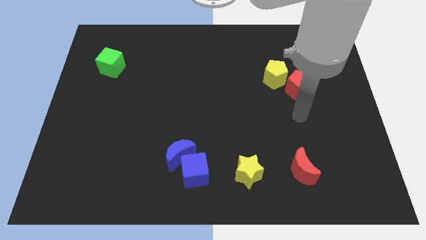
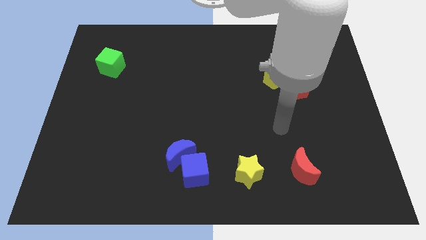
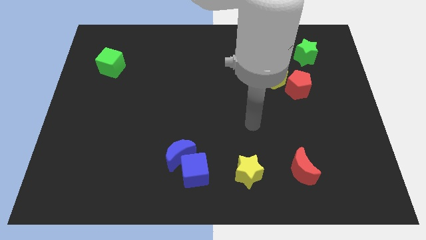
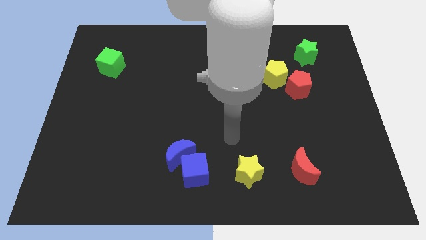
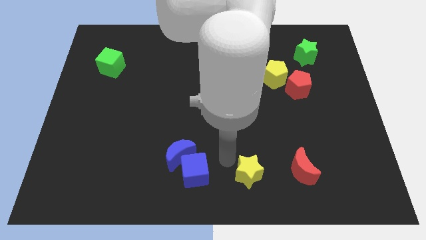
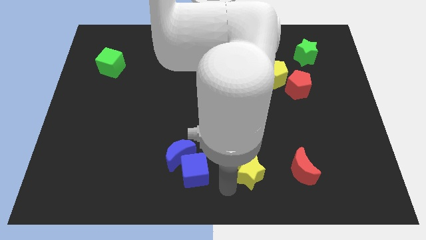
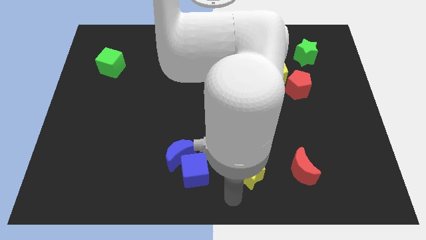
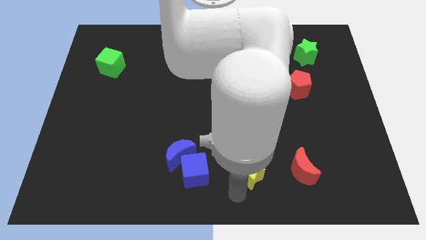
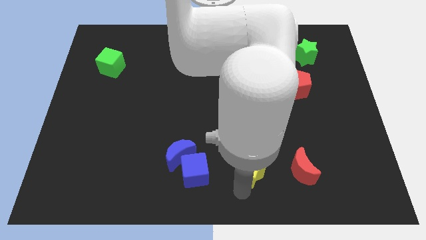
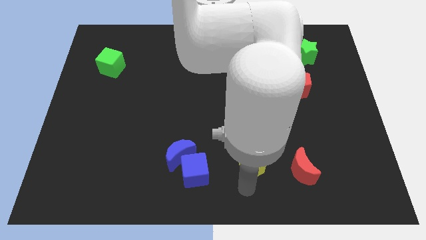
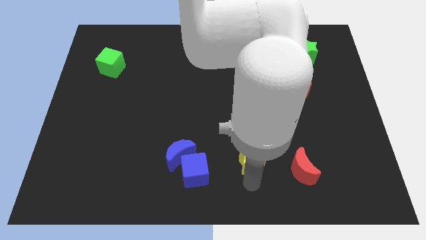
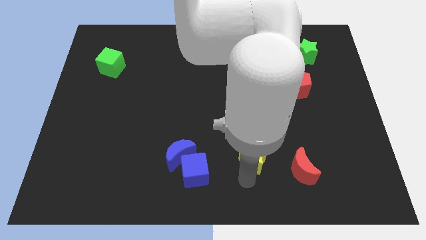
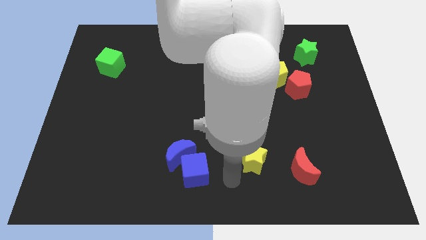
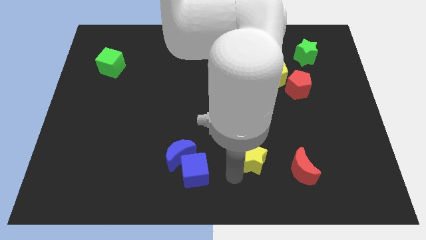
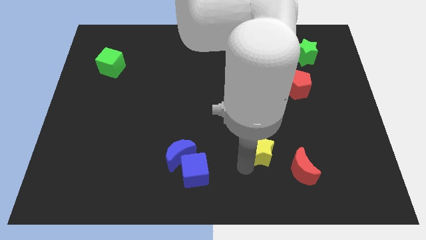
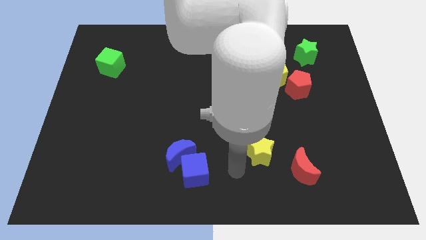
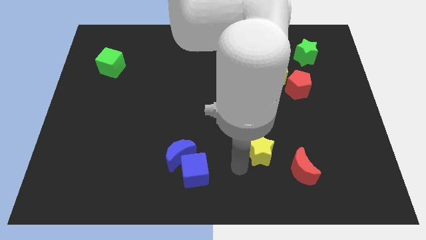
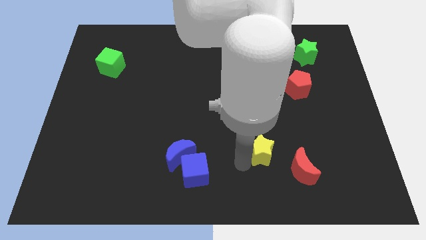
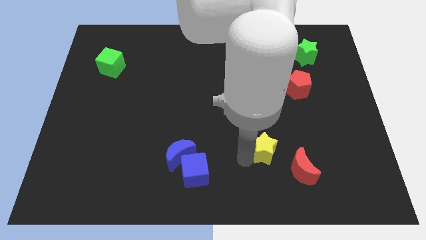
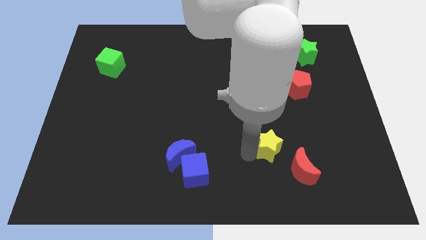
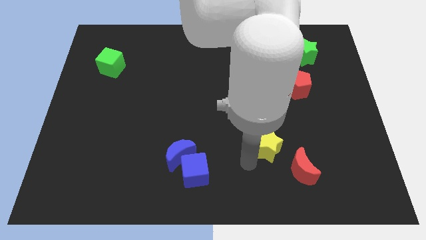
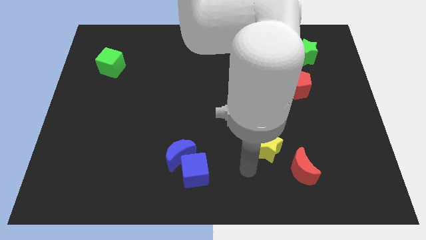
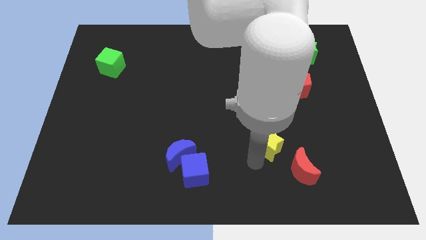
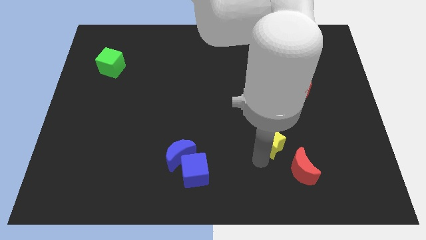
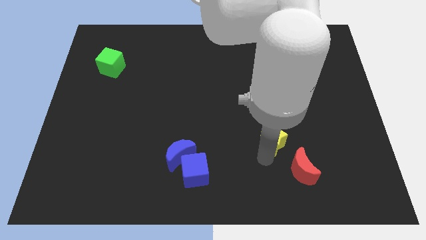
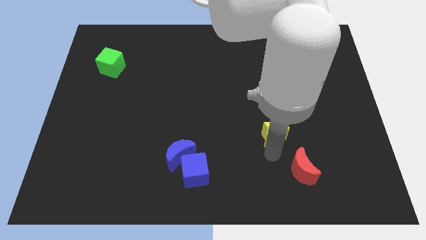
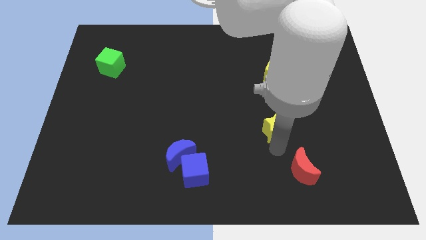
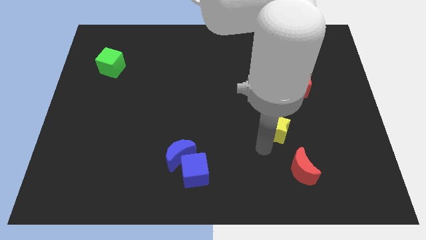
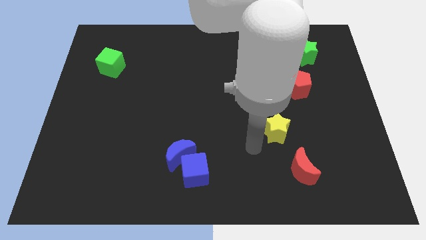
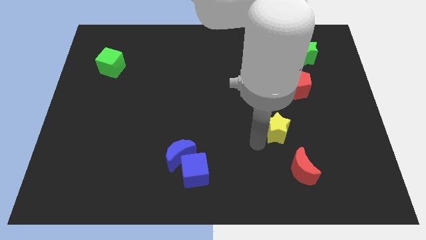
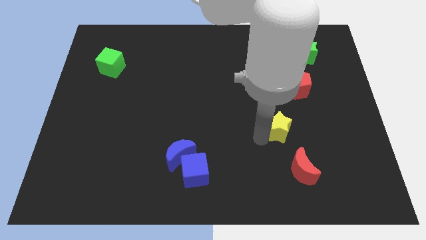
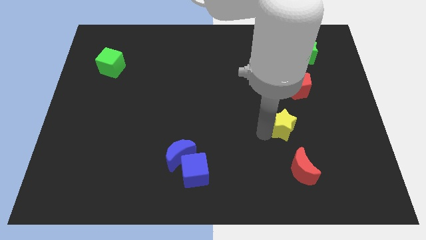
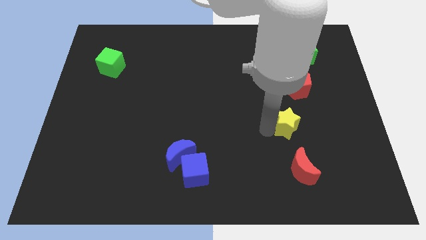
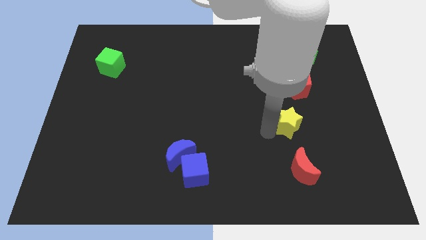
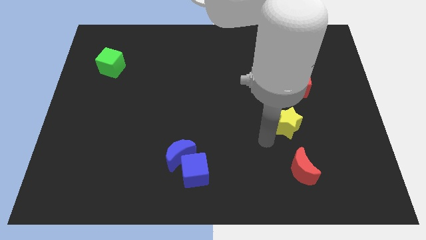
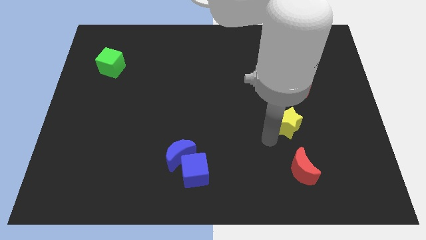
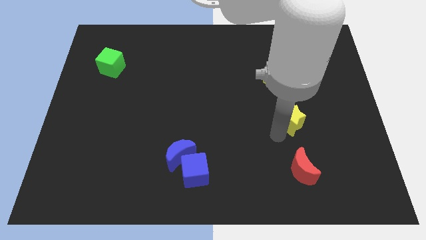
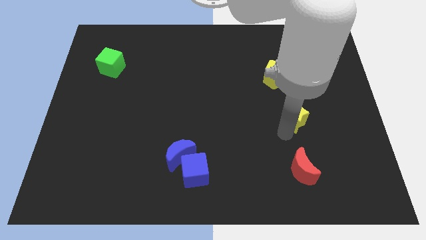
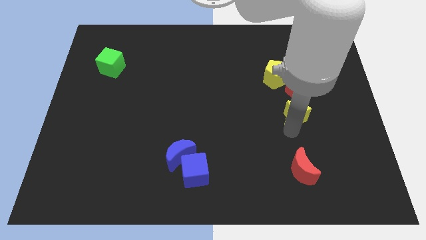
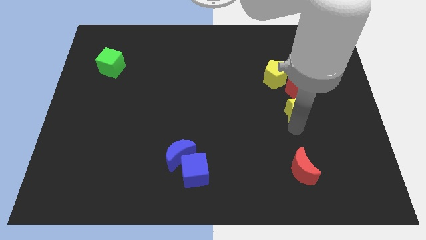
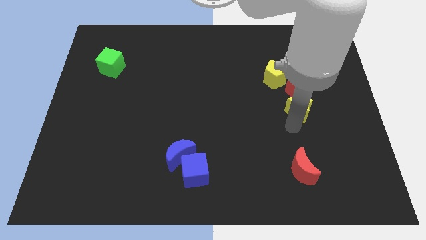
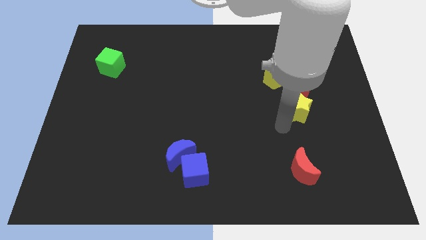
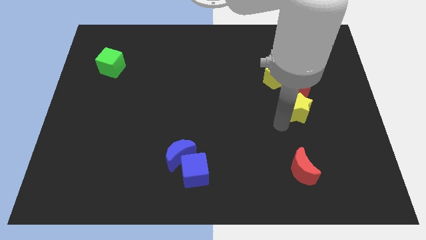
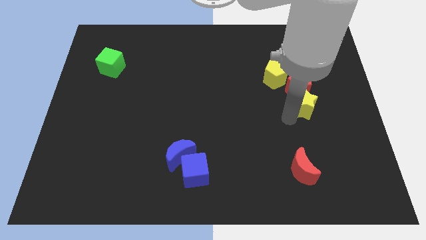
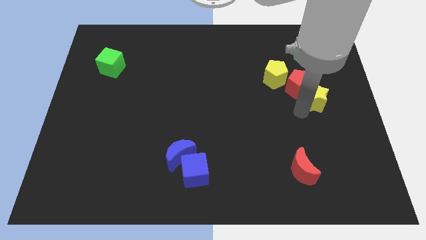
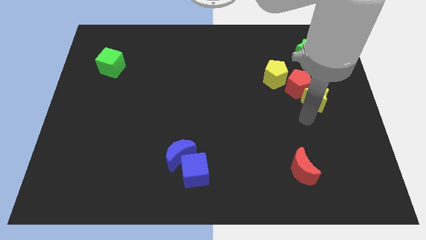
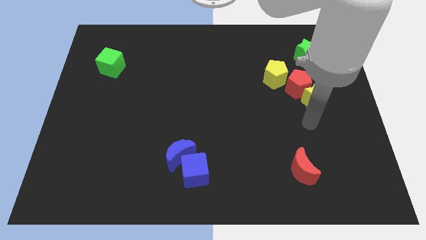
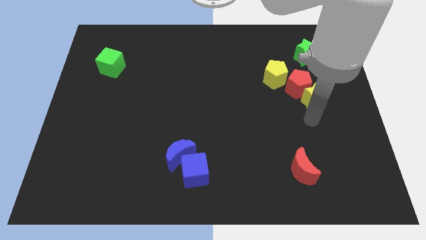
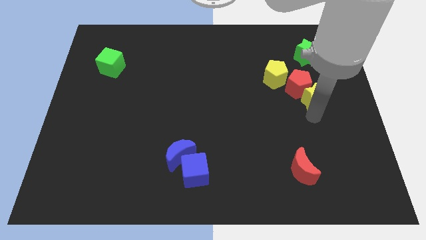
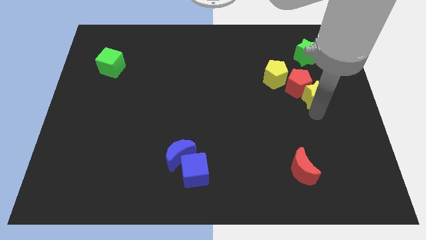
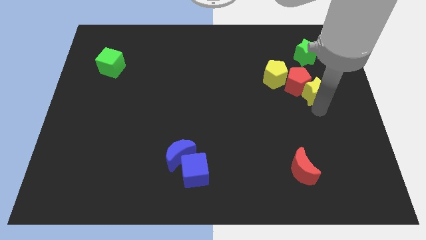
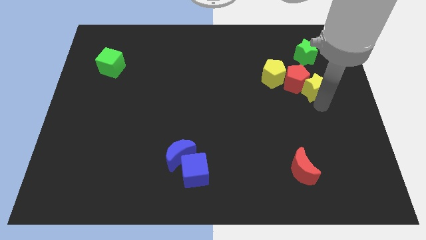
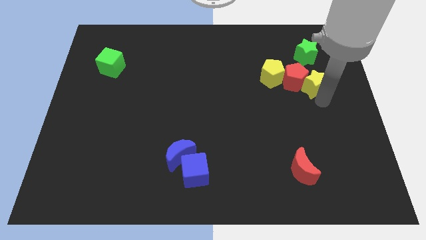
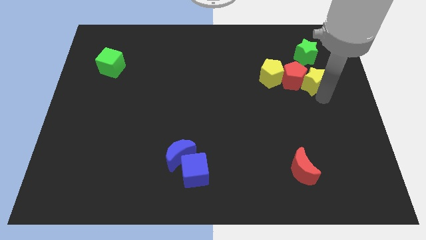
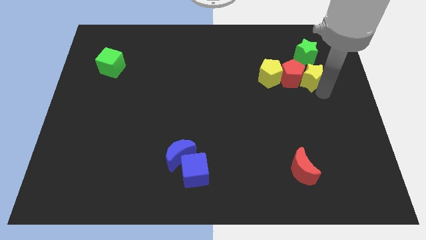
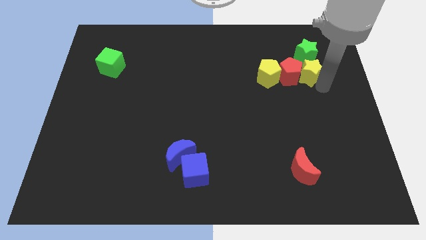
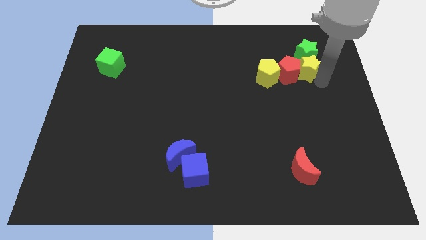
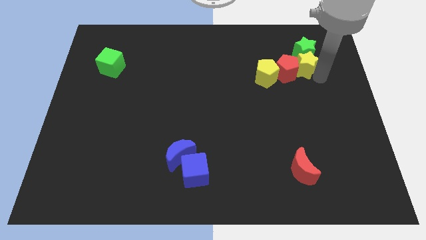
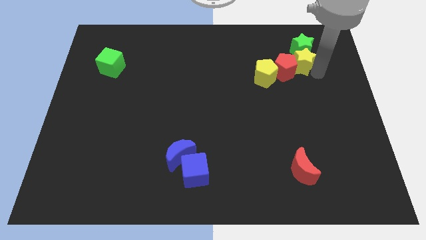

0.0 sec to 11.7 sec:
slide the yellow star to the top right of the yellow pentagon

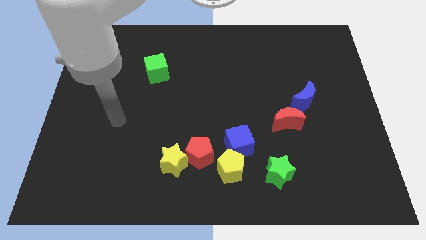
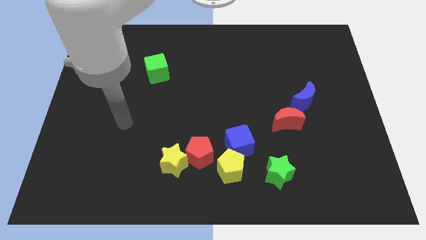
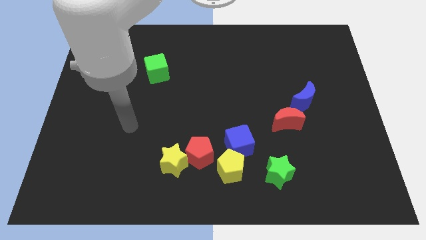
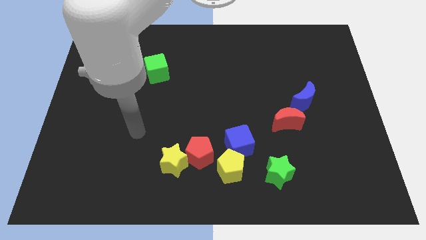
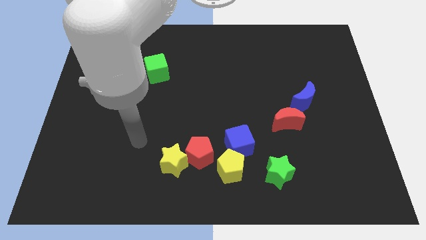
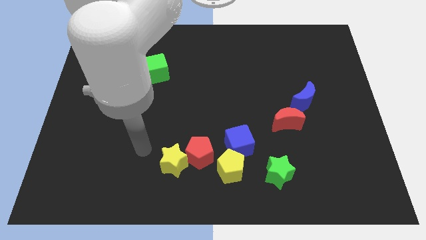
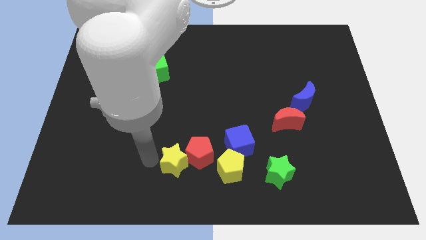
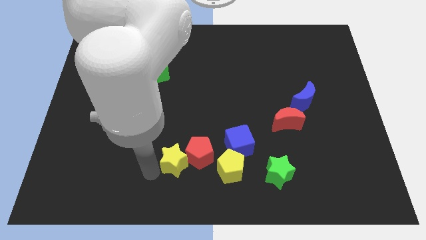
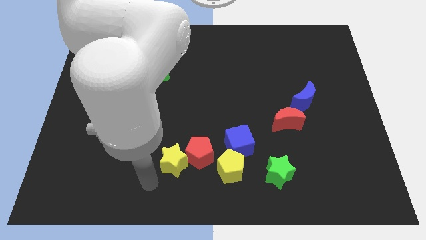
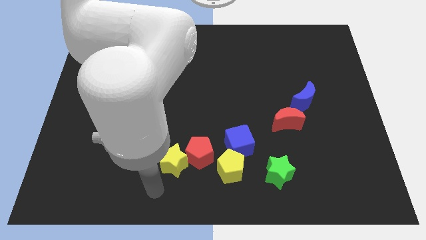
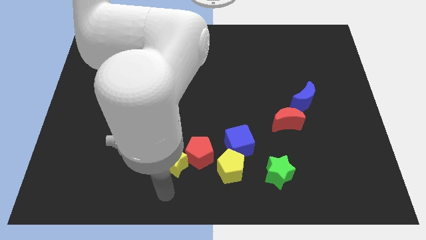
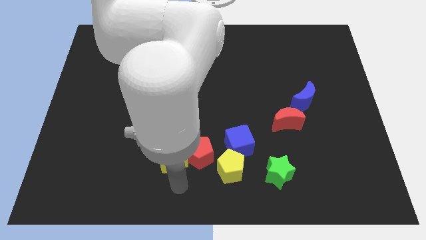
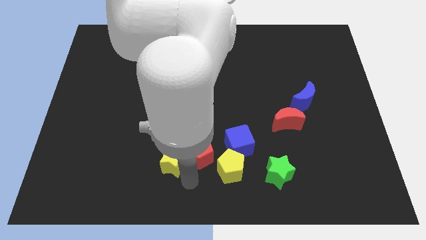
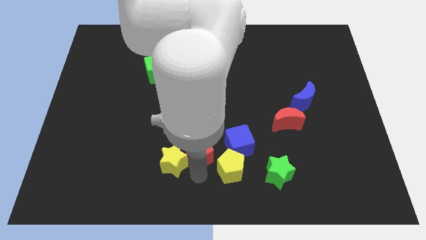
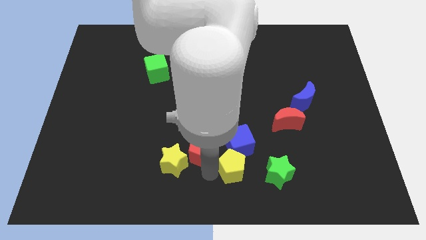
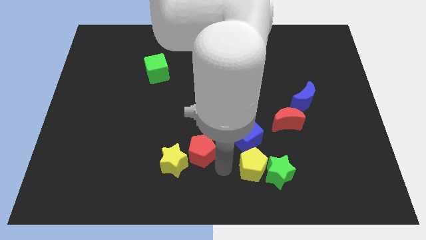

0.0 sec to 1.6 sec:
put the blue cube left of the red moon
